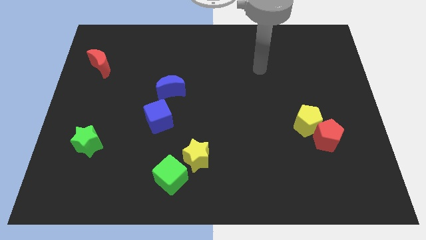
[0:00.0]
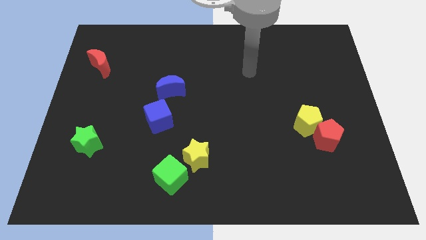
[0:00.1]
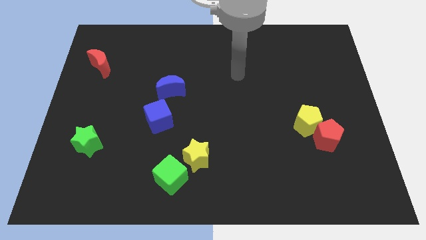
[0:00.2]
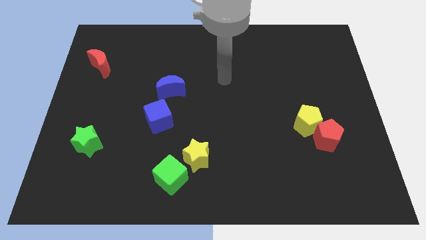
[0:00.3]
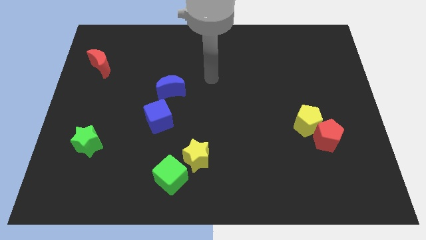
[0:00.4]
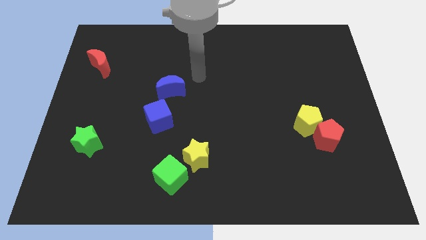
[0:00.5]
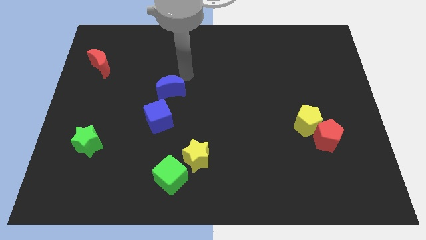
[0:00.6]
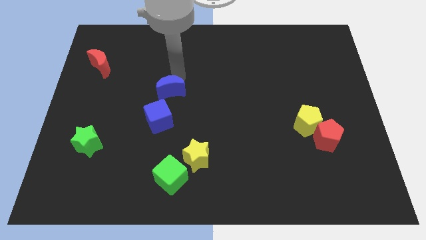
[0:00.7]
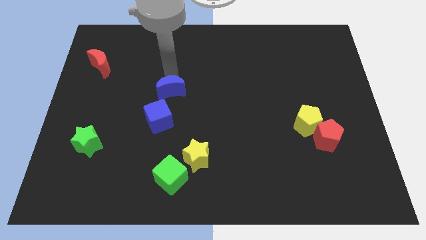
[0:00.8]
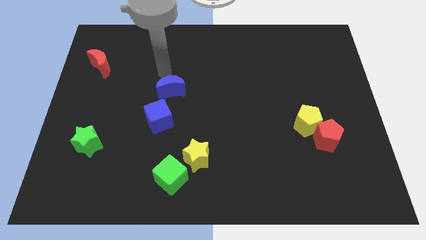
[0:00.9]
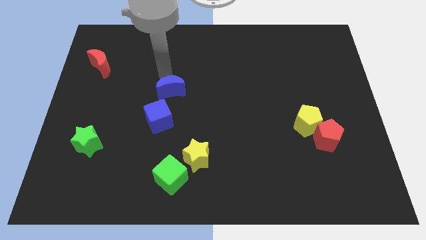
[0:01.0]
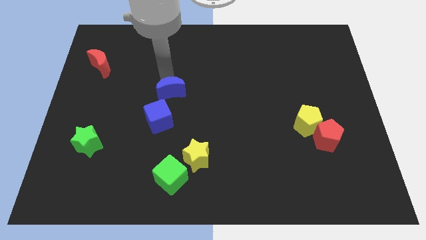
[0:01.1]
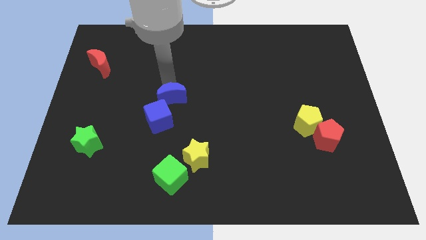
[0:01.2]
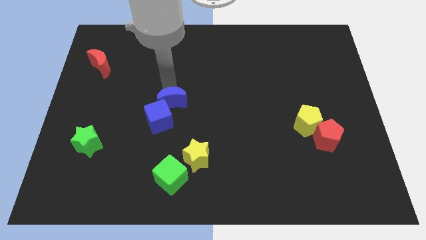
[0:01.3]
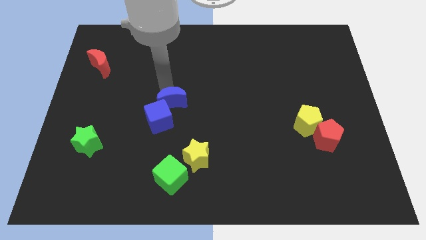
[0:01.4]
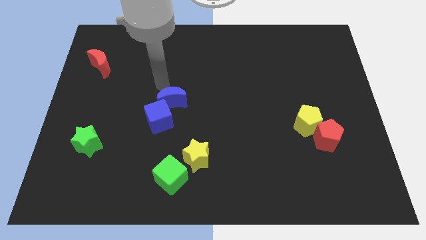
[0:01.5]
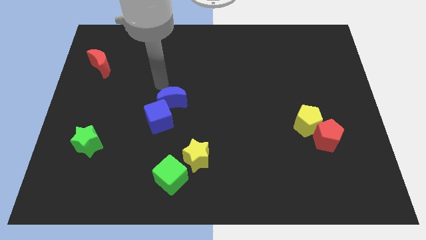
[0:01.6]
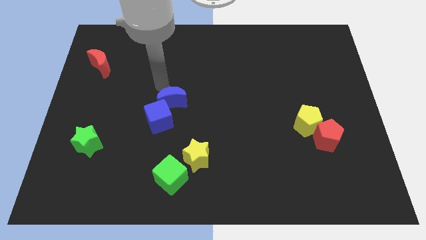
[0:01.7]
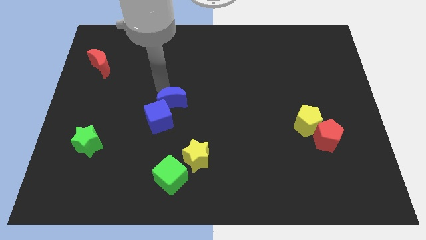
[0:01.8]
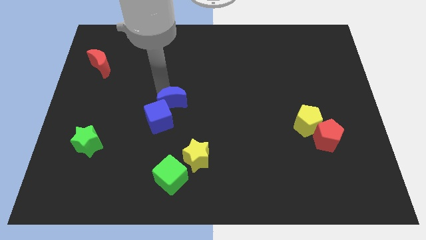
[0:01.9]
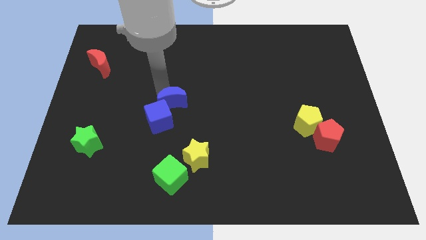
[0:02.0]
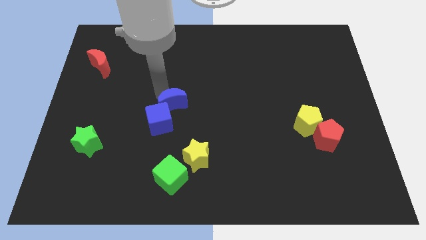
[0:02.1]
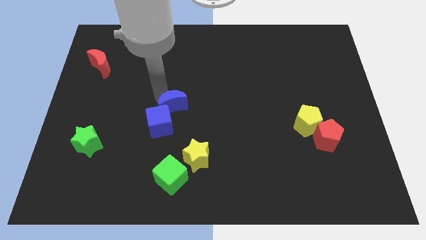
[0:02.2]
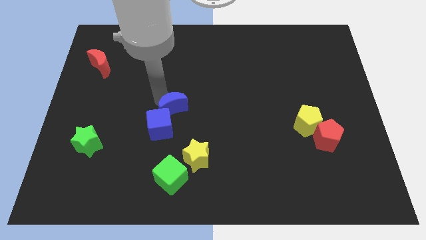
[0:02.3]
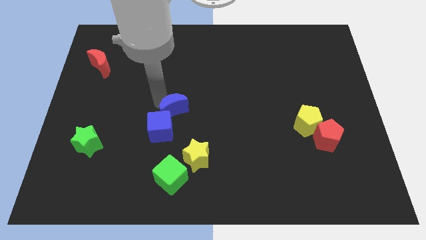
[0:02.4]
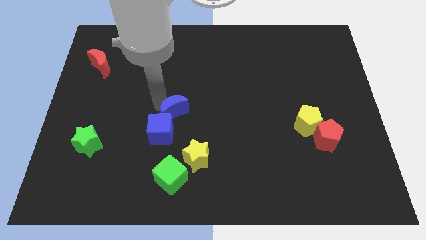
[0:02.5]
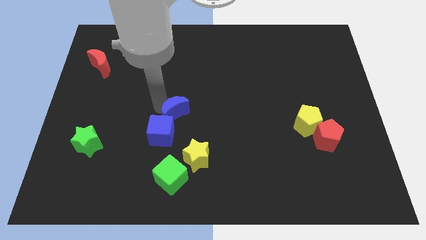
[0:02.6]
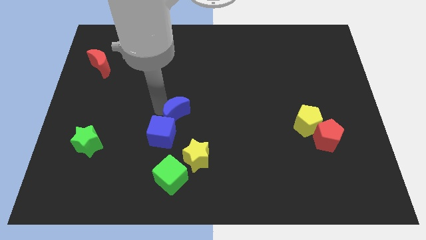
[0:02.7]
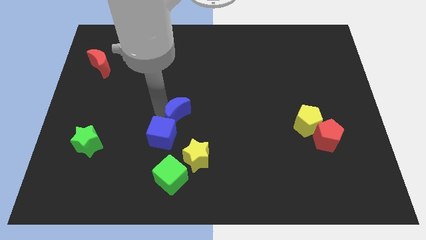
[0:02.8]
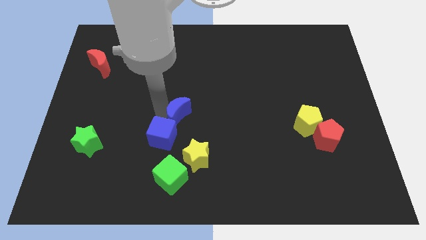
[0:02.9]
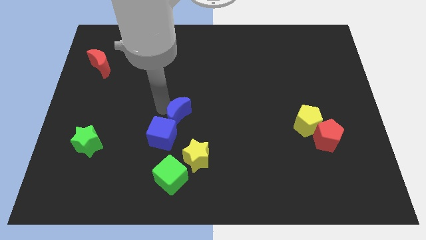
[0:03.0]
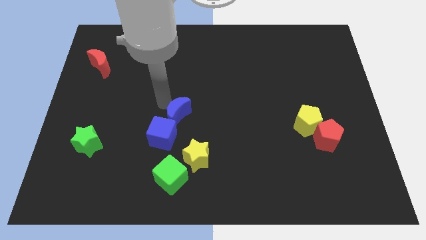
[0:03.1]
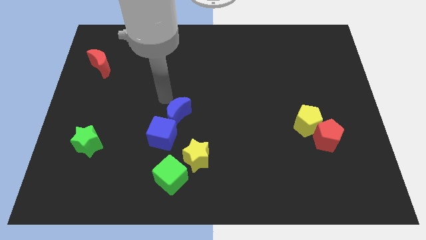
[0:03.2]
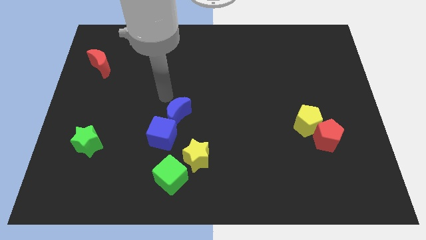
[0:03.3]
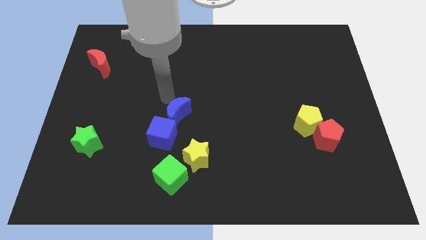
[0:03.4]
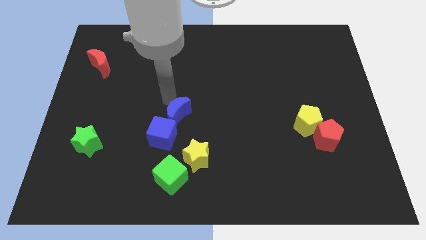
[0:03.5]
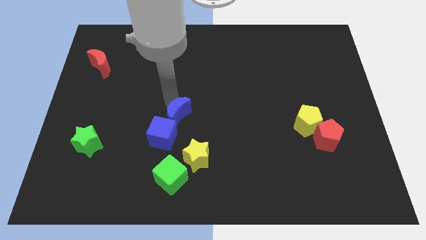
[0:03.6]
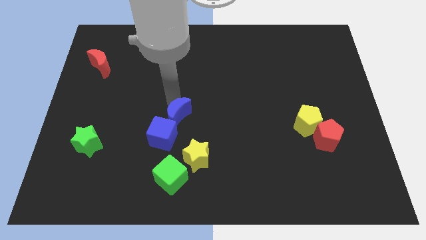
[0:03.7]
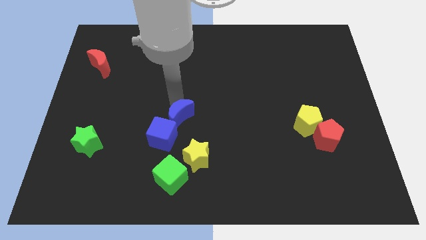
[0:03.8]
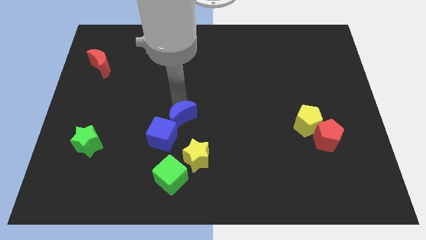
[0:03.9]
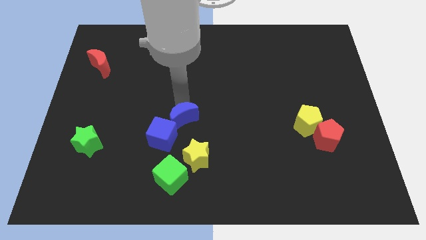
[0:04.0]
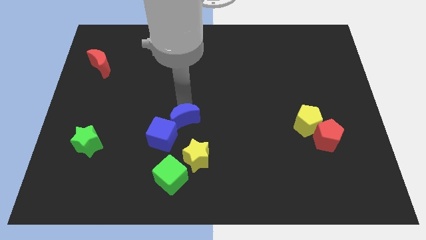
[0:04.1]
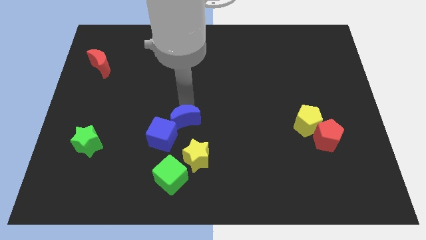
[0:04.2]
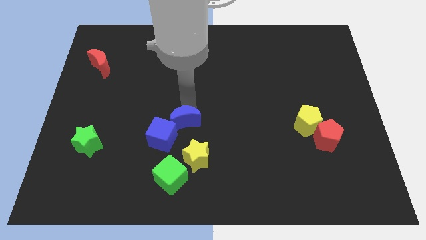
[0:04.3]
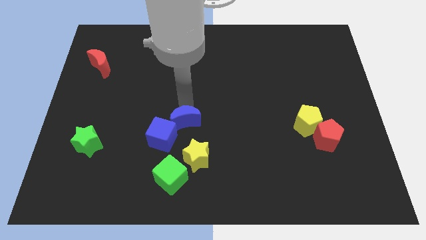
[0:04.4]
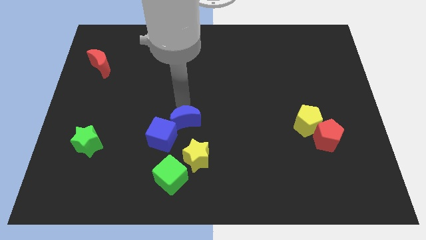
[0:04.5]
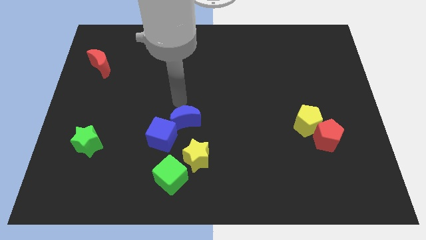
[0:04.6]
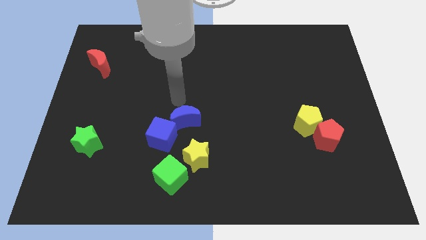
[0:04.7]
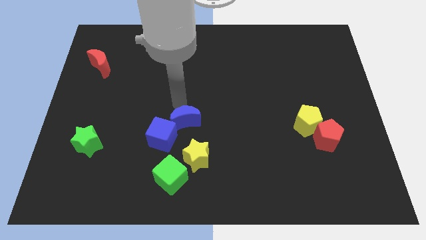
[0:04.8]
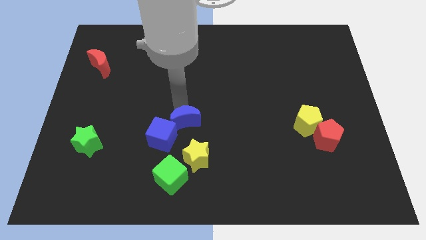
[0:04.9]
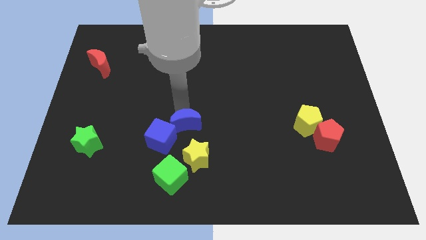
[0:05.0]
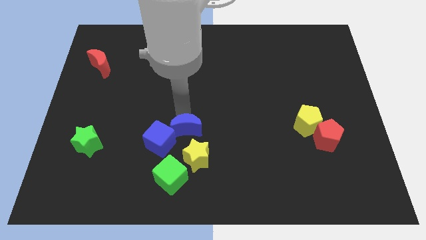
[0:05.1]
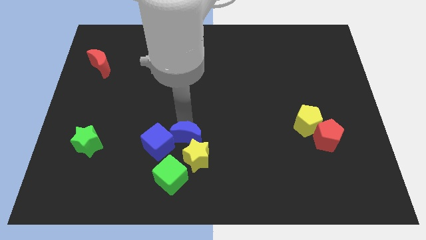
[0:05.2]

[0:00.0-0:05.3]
move the blue moon next to the yellow star

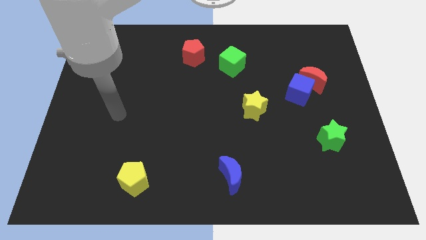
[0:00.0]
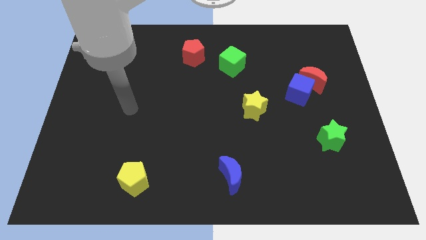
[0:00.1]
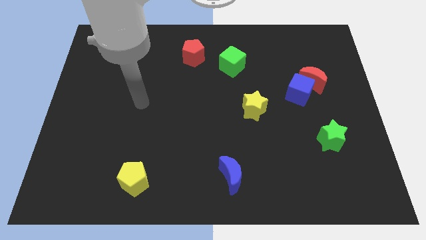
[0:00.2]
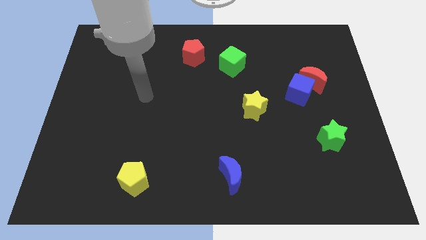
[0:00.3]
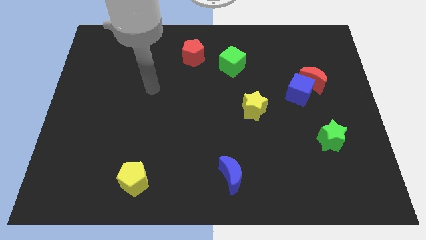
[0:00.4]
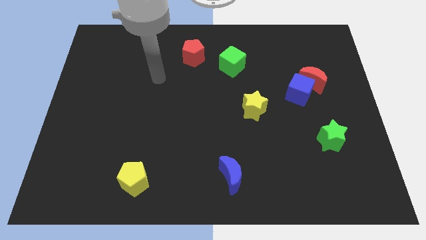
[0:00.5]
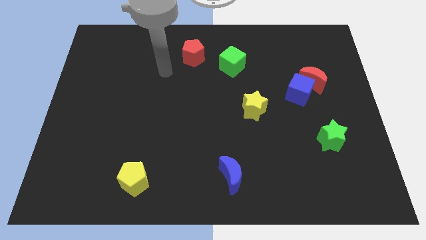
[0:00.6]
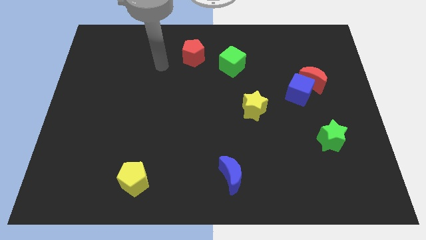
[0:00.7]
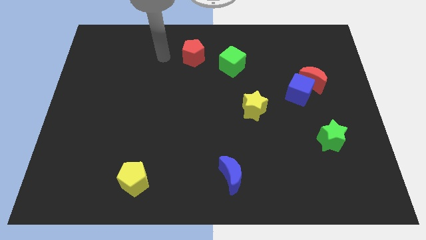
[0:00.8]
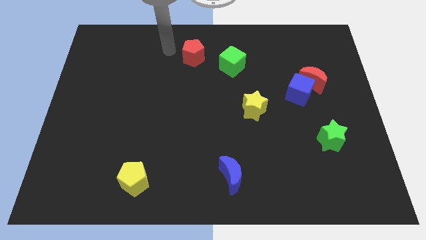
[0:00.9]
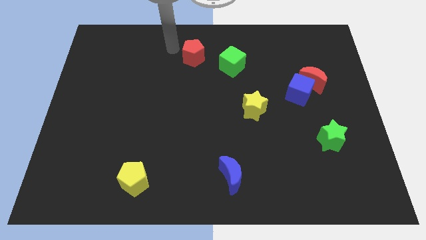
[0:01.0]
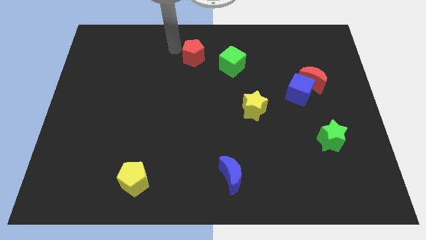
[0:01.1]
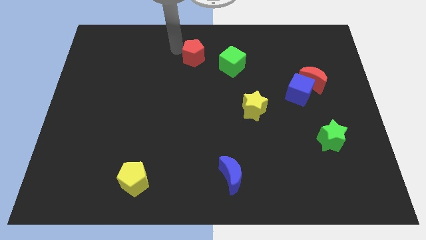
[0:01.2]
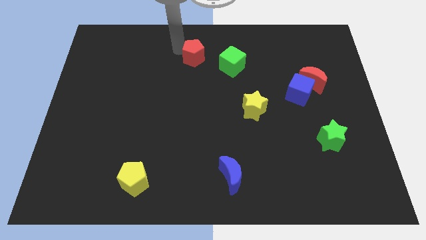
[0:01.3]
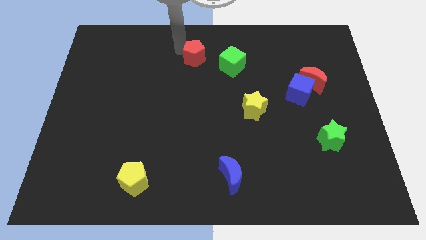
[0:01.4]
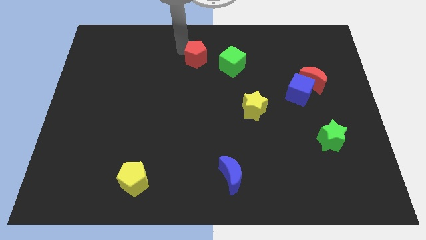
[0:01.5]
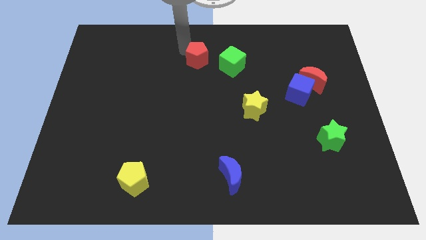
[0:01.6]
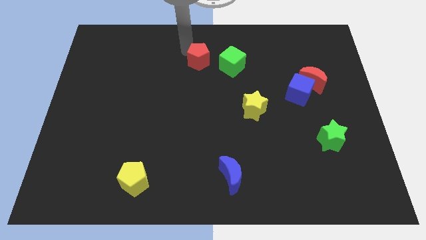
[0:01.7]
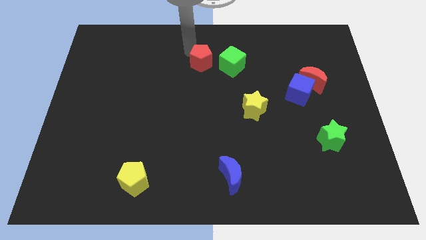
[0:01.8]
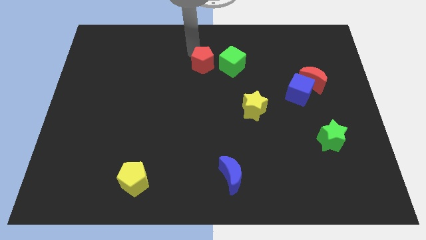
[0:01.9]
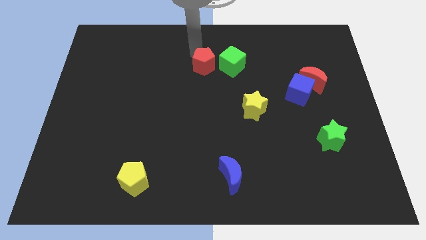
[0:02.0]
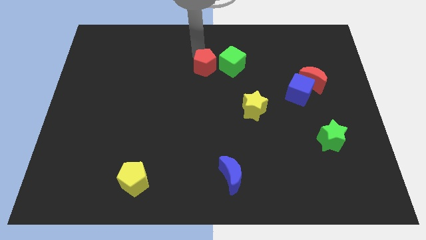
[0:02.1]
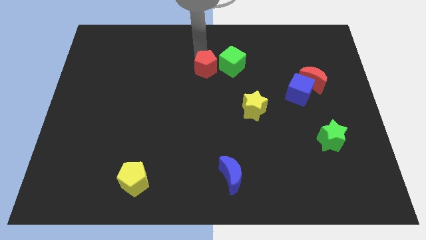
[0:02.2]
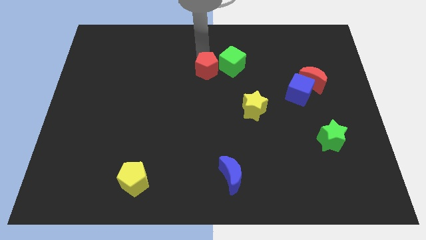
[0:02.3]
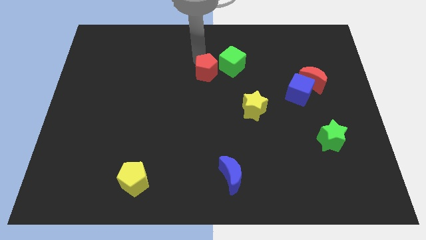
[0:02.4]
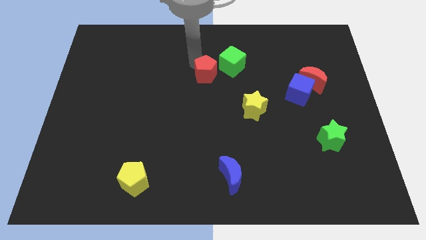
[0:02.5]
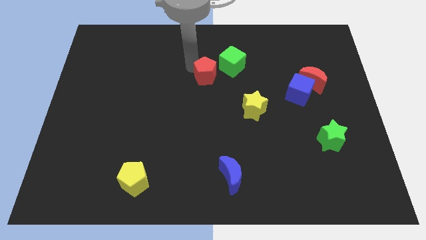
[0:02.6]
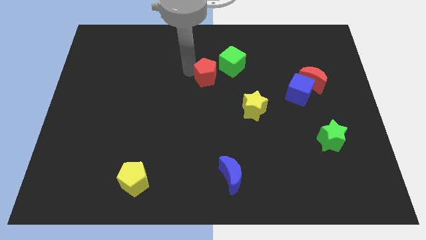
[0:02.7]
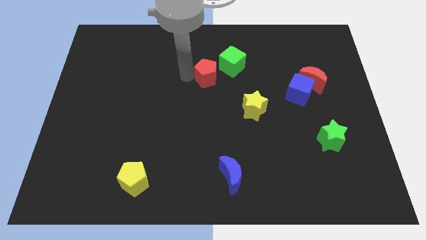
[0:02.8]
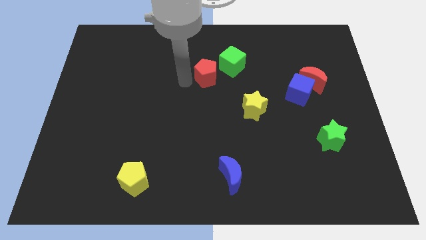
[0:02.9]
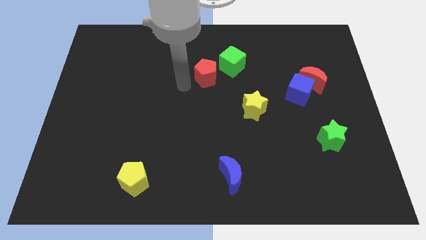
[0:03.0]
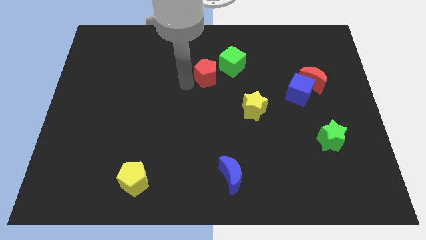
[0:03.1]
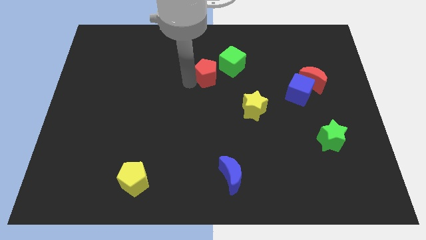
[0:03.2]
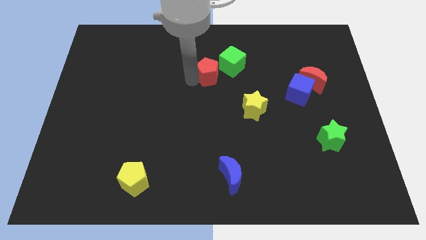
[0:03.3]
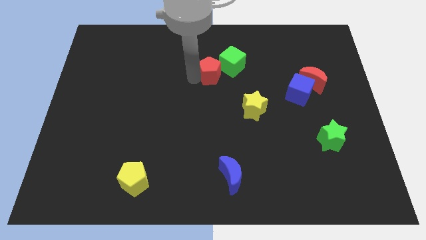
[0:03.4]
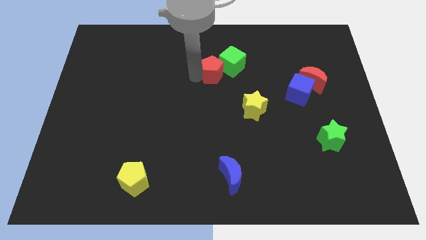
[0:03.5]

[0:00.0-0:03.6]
move the red pentagon close to the green cube
